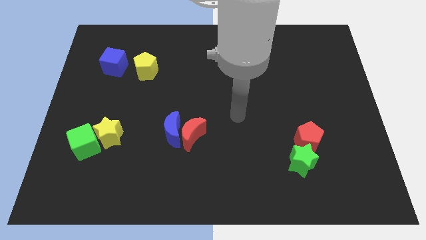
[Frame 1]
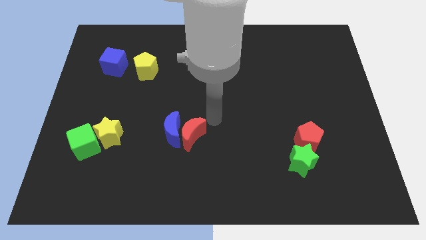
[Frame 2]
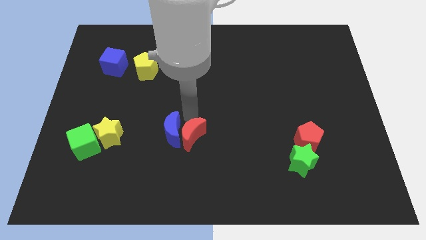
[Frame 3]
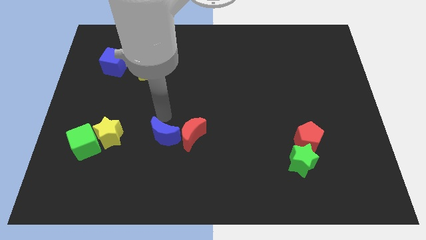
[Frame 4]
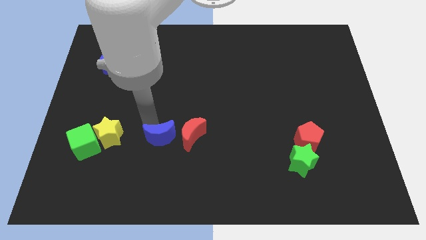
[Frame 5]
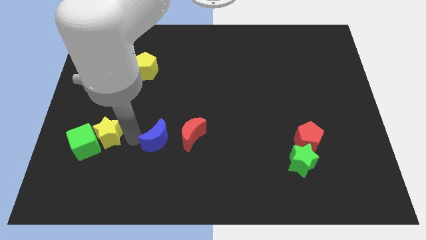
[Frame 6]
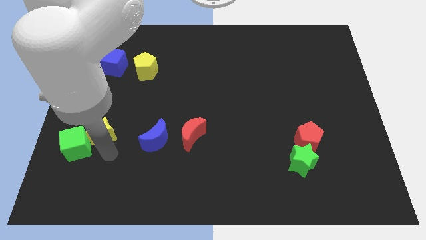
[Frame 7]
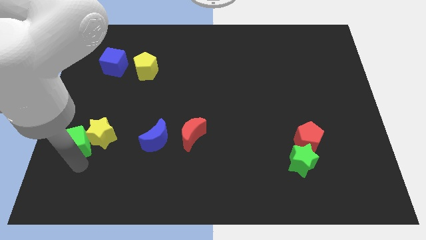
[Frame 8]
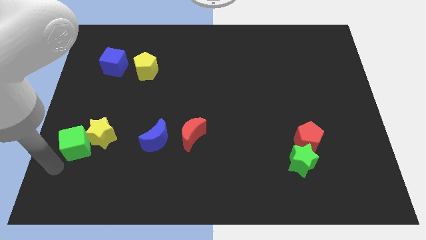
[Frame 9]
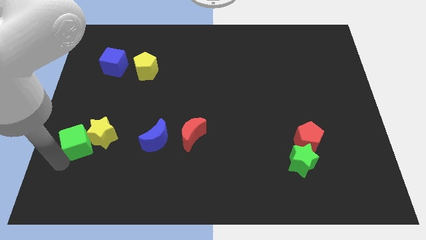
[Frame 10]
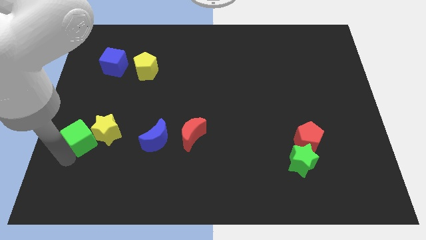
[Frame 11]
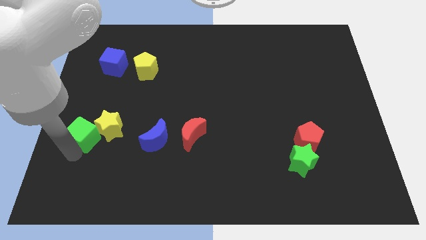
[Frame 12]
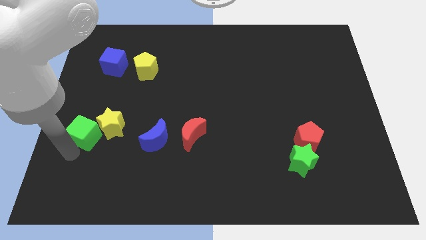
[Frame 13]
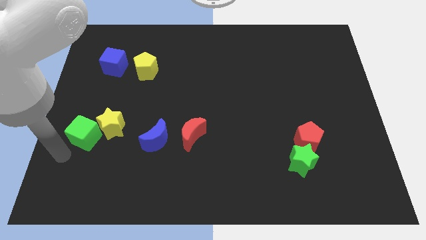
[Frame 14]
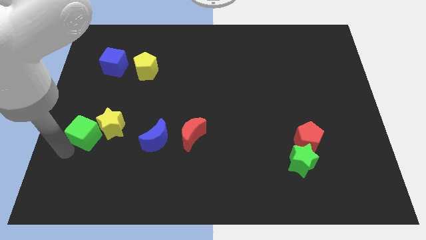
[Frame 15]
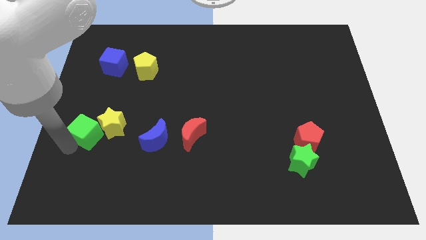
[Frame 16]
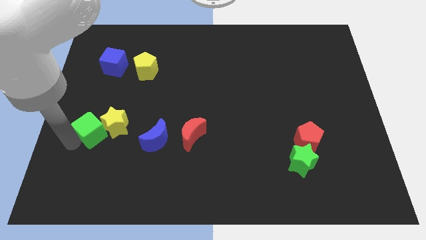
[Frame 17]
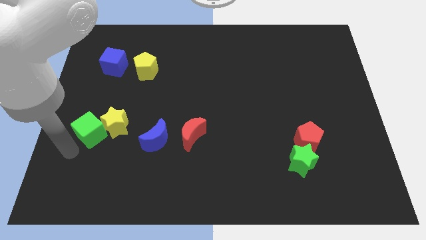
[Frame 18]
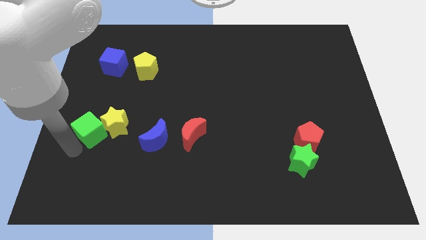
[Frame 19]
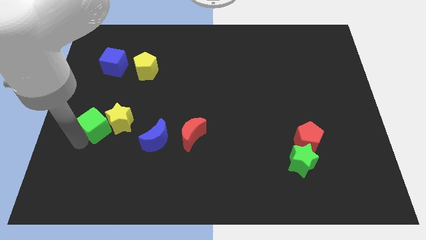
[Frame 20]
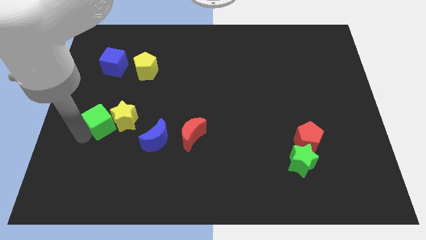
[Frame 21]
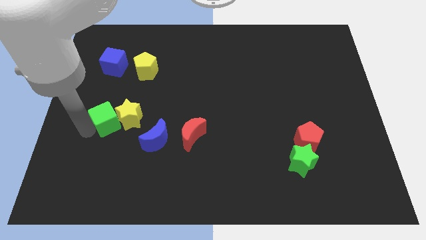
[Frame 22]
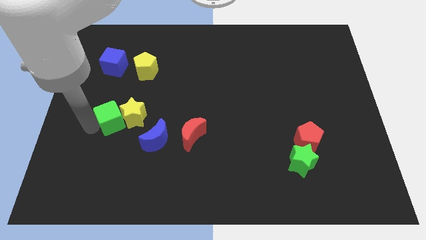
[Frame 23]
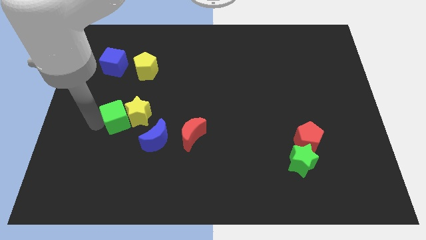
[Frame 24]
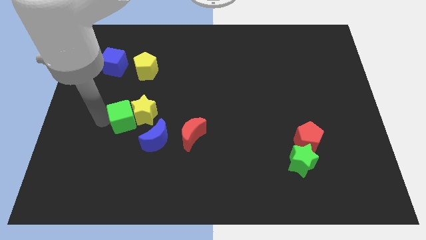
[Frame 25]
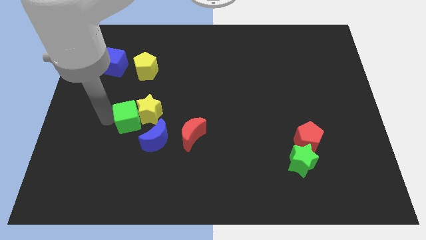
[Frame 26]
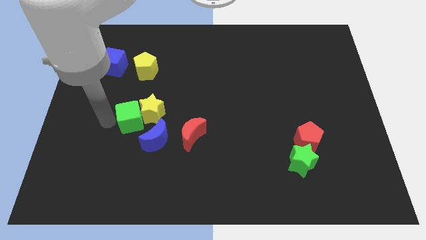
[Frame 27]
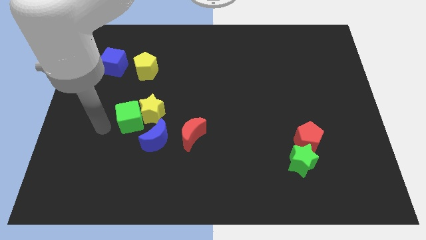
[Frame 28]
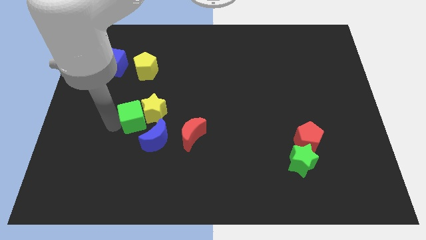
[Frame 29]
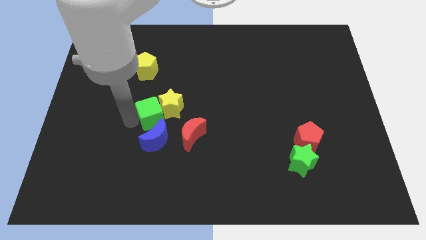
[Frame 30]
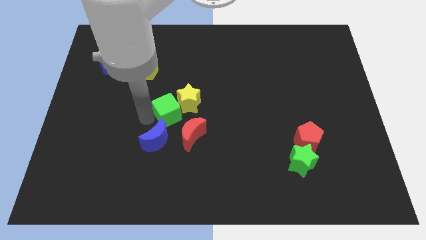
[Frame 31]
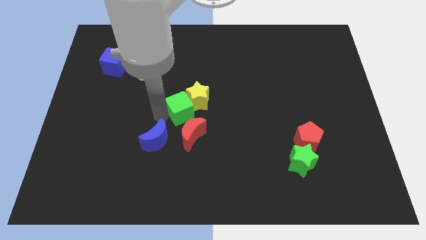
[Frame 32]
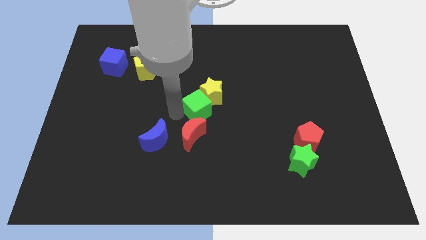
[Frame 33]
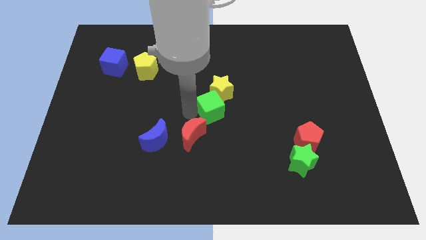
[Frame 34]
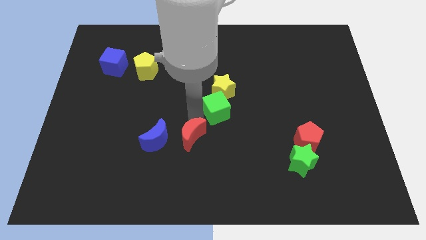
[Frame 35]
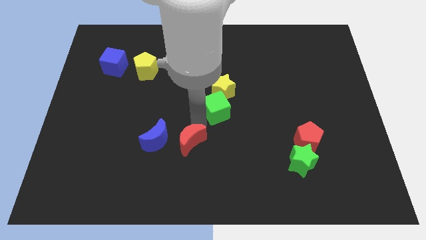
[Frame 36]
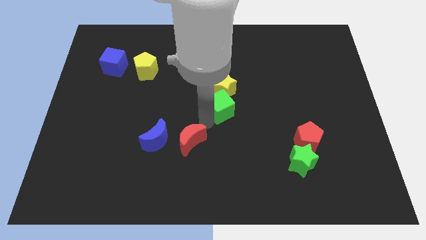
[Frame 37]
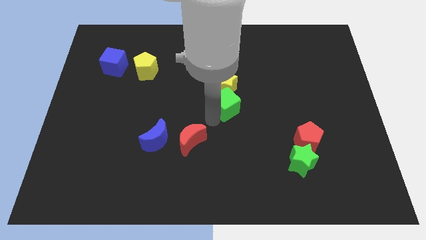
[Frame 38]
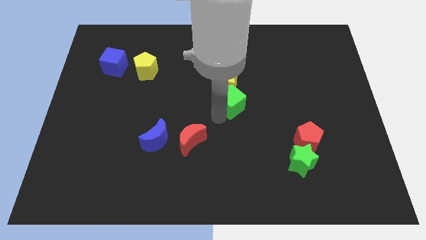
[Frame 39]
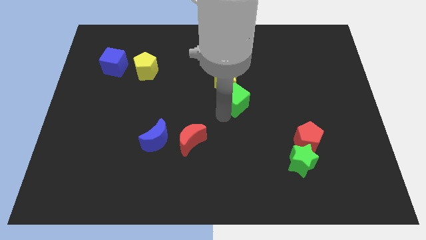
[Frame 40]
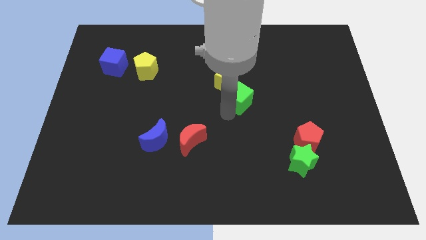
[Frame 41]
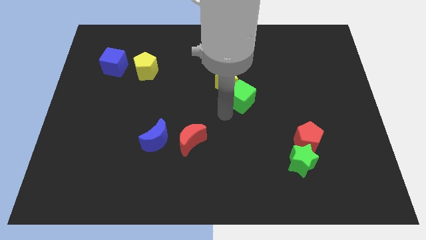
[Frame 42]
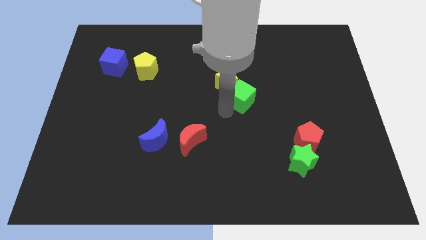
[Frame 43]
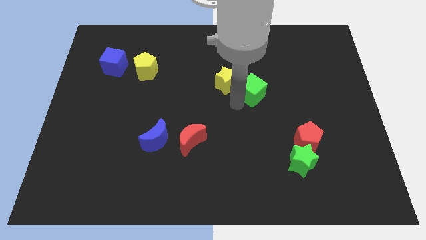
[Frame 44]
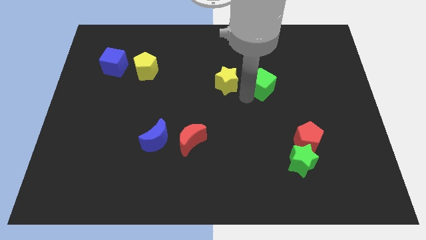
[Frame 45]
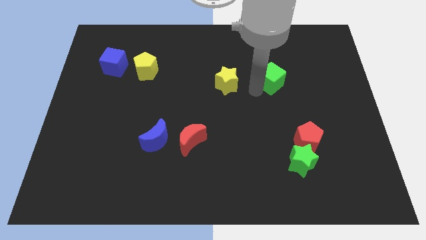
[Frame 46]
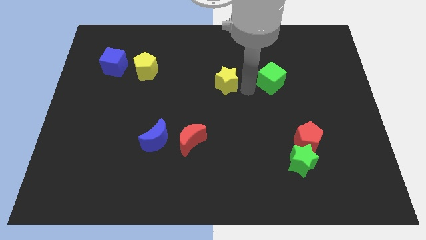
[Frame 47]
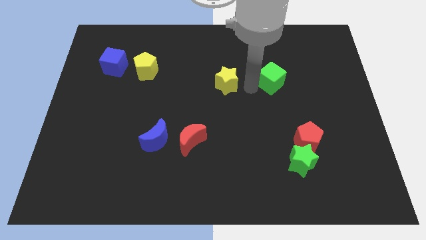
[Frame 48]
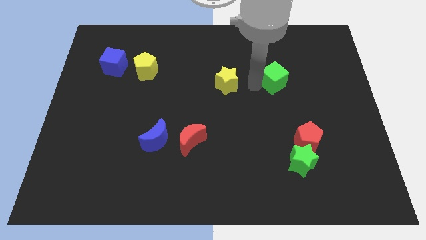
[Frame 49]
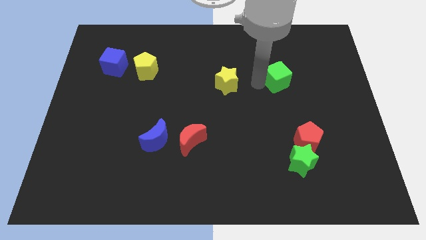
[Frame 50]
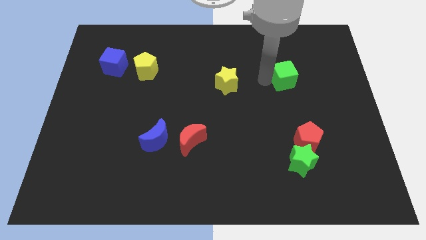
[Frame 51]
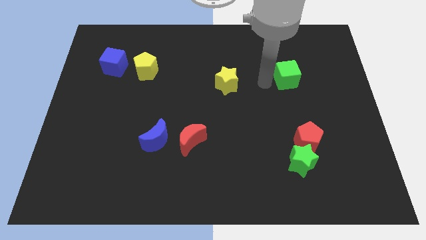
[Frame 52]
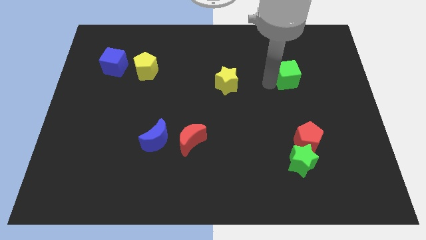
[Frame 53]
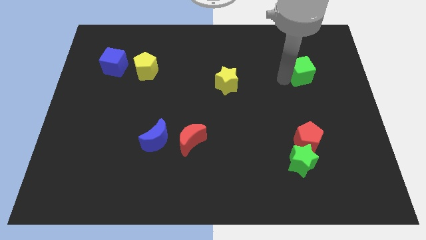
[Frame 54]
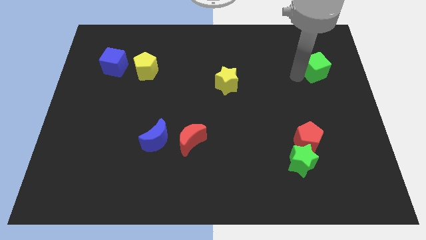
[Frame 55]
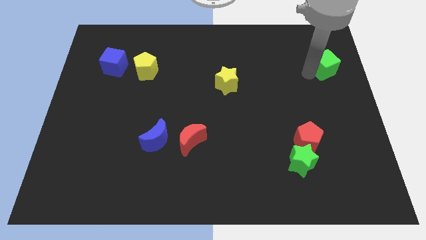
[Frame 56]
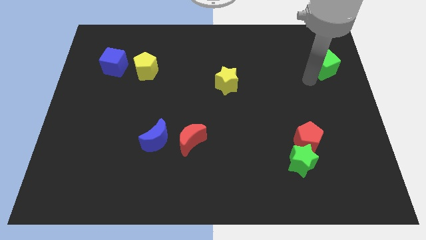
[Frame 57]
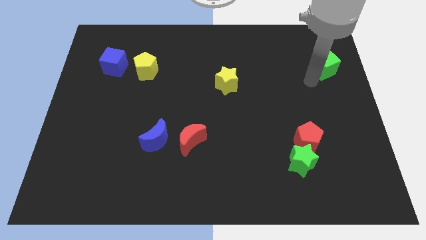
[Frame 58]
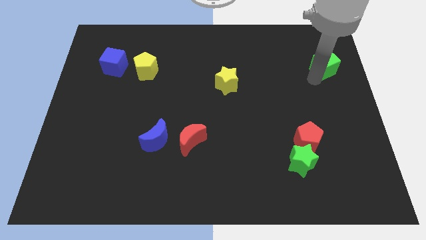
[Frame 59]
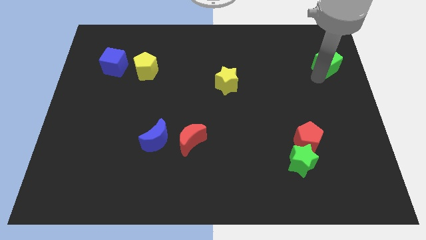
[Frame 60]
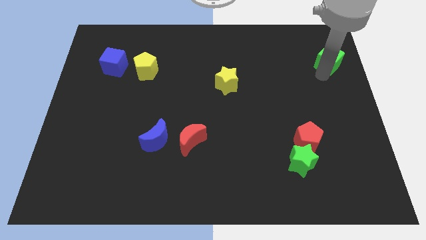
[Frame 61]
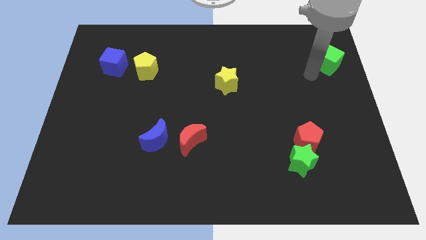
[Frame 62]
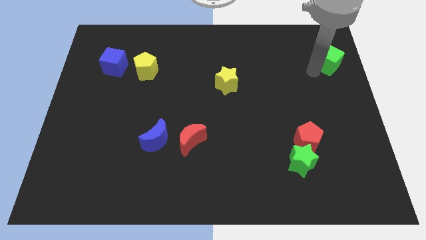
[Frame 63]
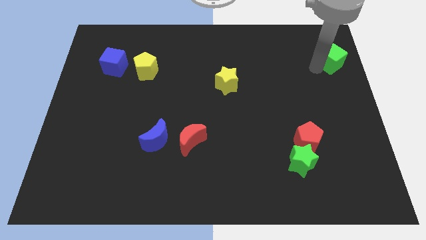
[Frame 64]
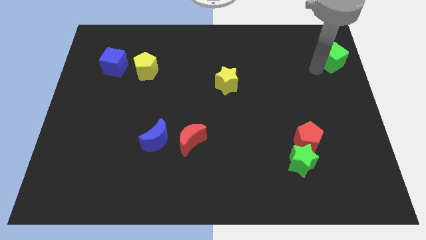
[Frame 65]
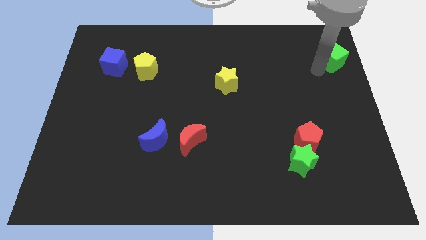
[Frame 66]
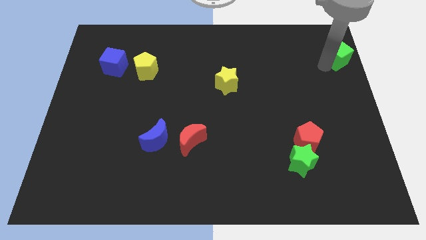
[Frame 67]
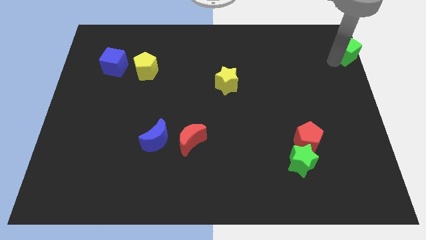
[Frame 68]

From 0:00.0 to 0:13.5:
slide the green cube to the upper right corner
